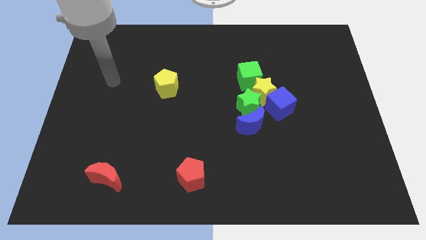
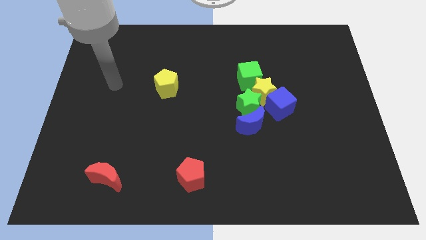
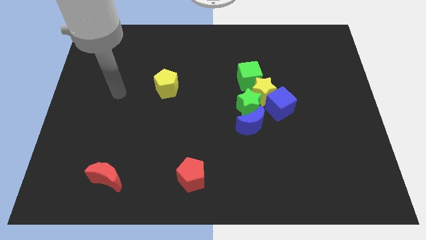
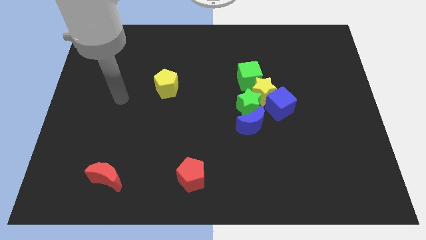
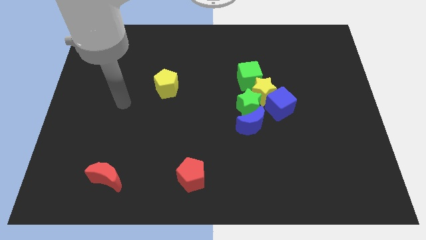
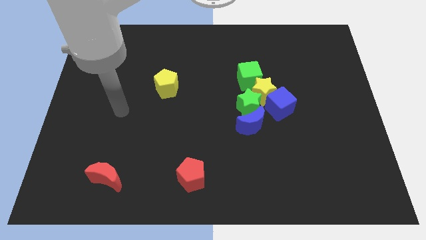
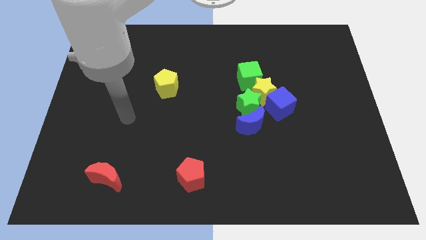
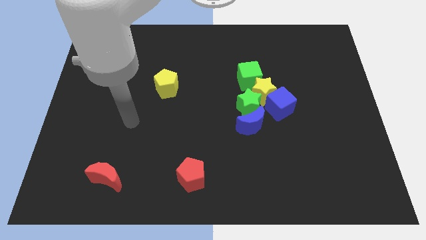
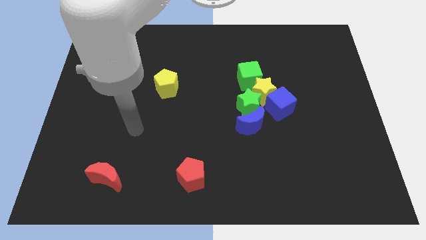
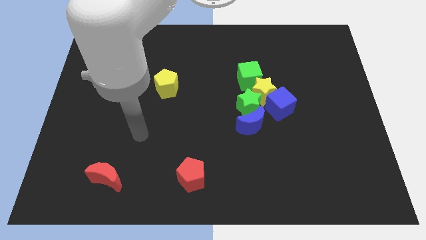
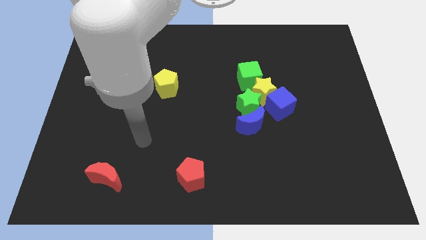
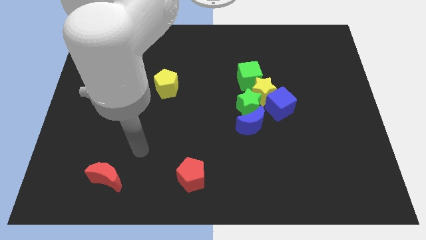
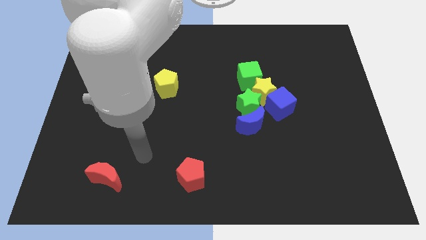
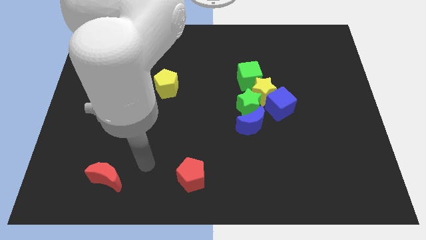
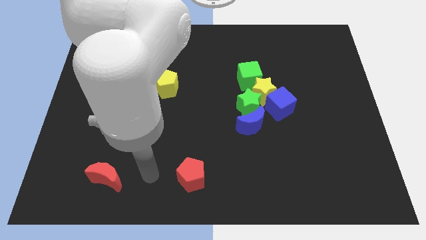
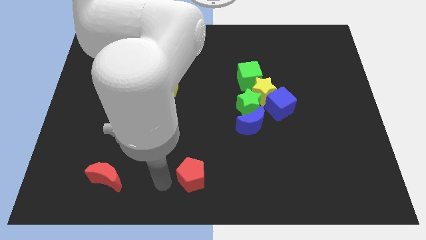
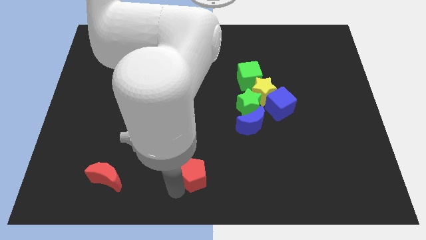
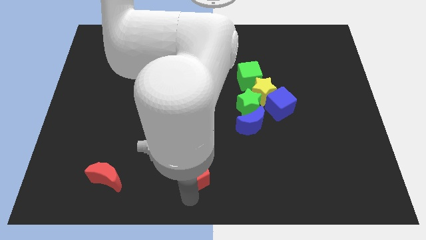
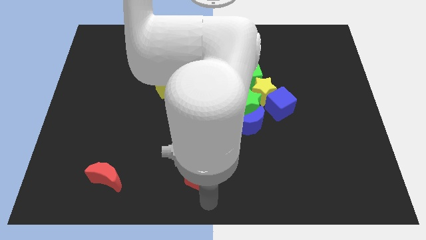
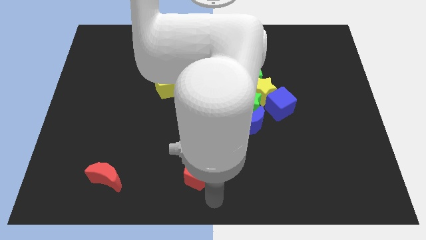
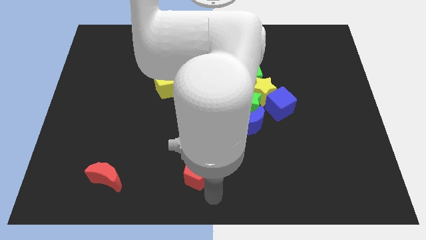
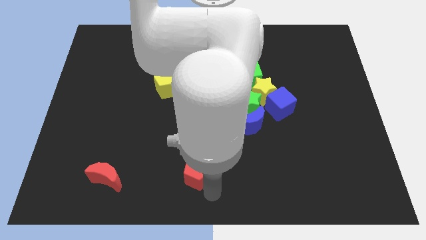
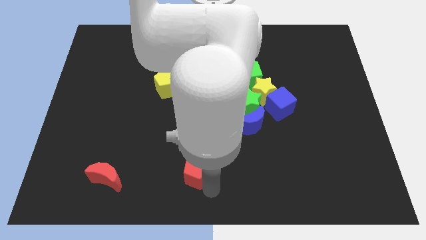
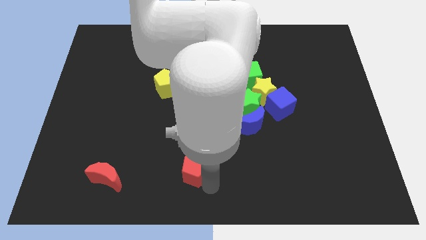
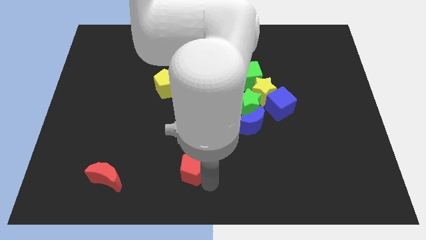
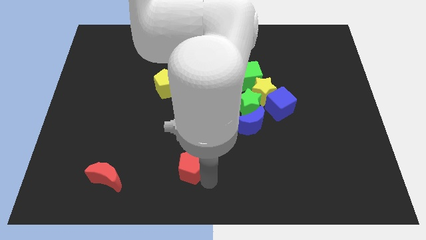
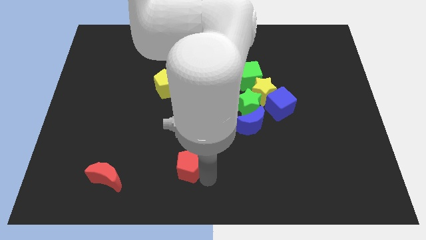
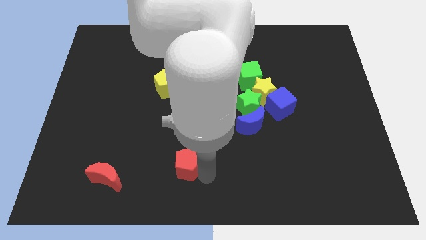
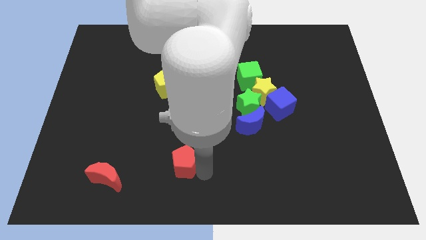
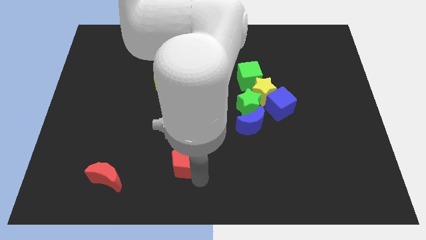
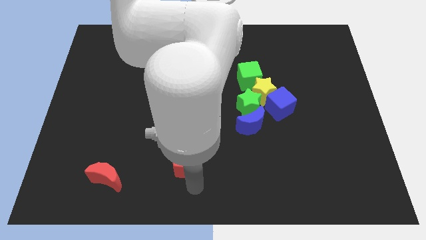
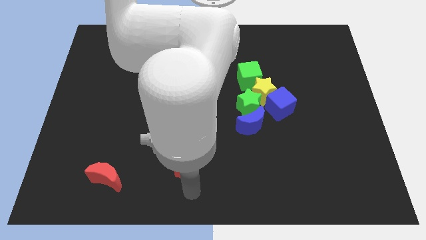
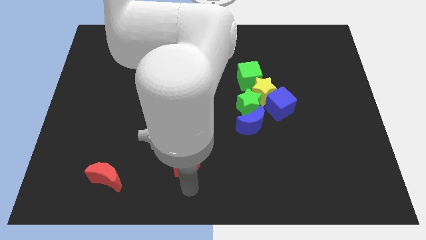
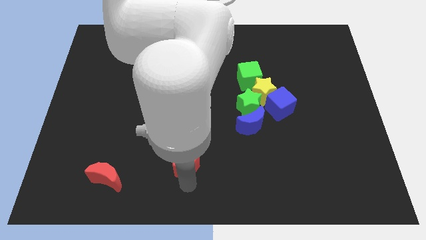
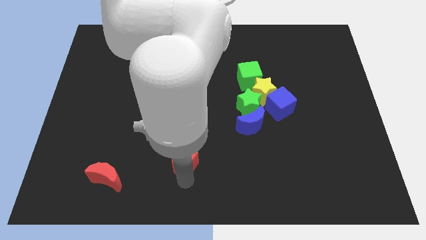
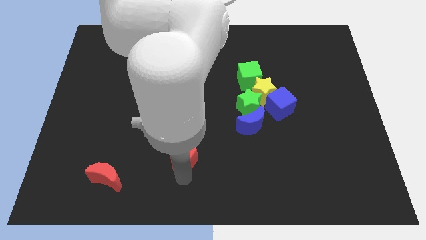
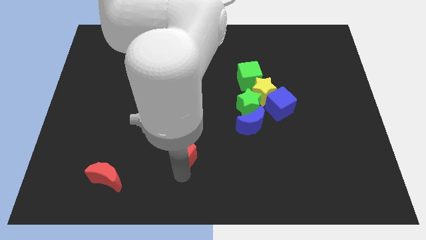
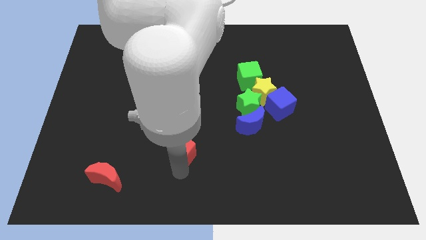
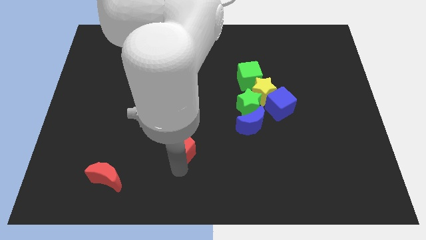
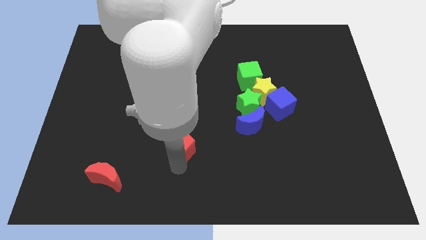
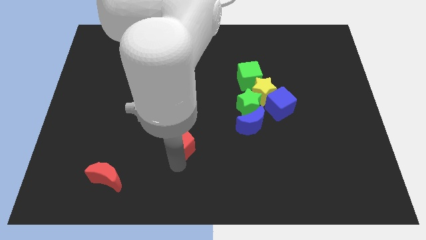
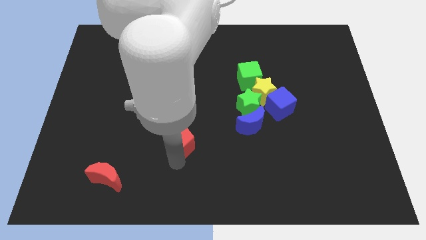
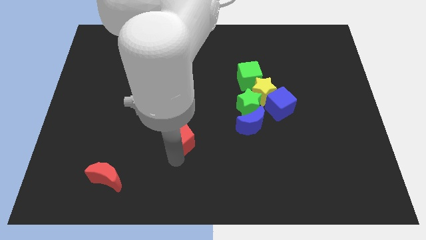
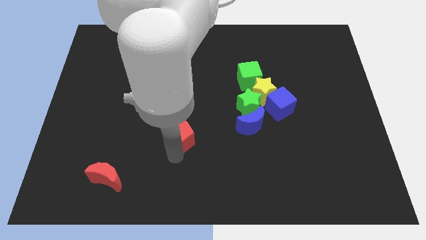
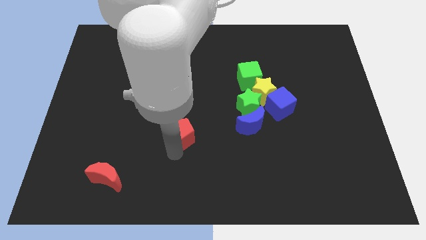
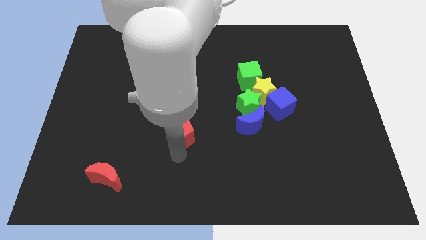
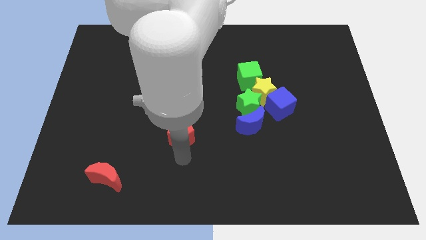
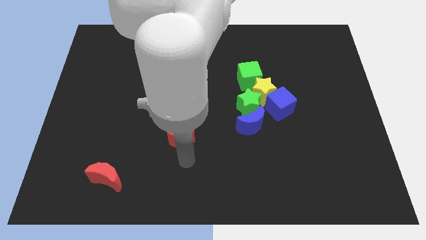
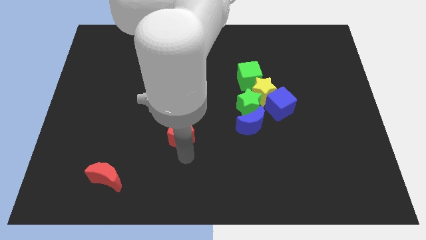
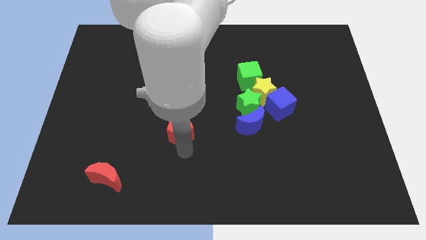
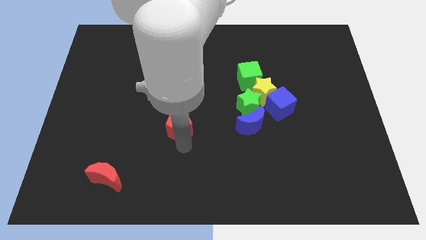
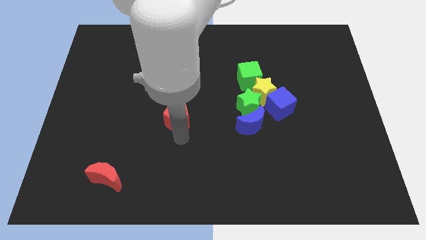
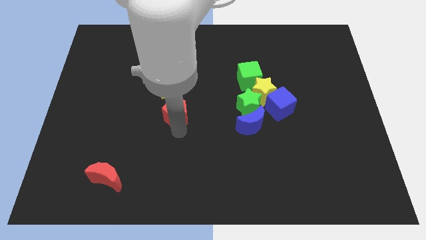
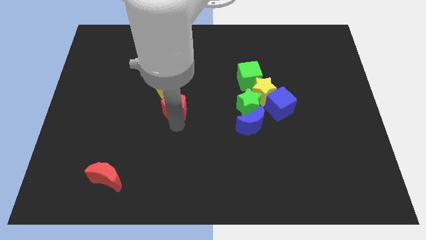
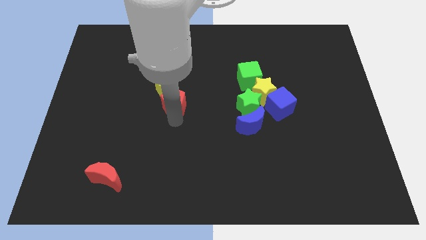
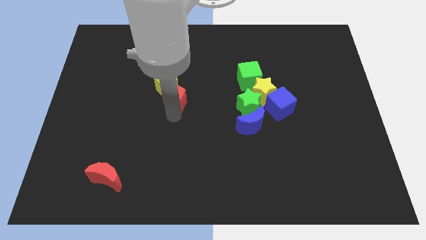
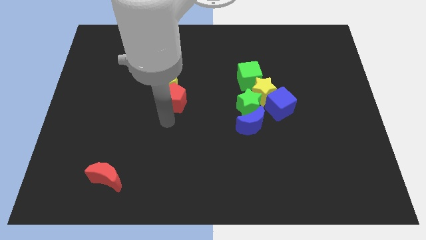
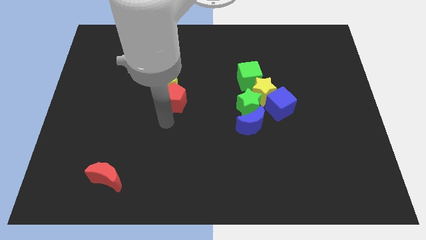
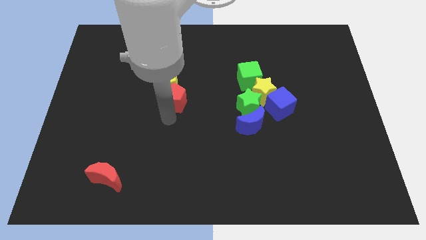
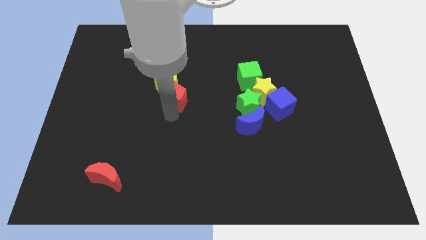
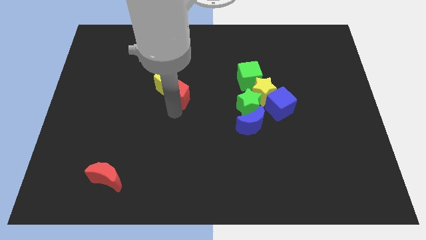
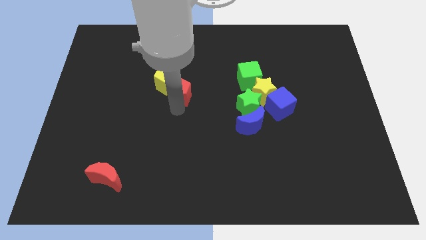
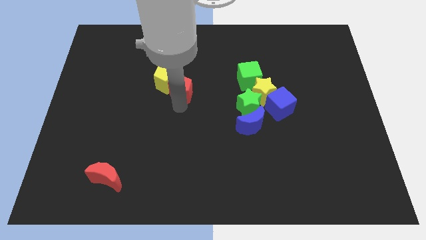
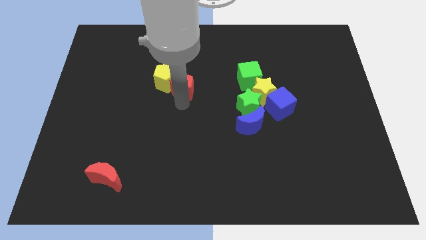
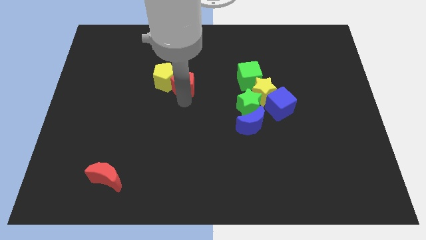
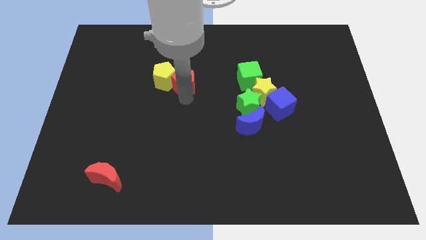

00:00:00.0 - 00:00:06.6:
slide the red pentagon diagonally up and to the right of the yellow pentagon

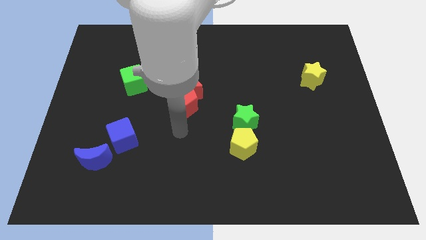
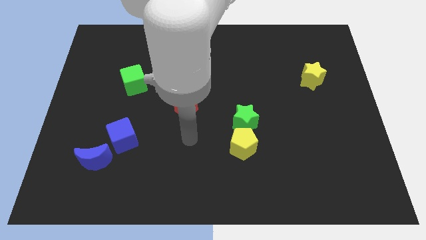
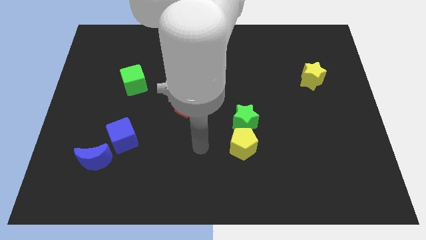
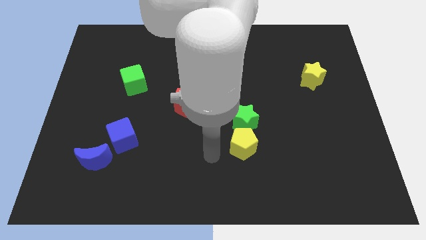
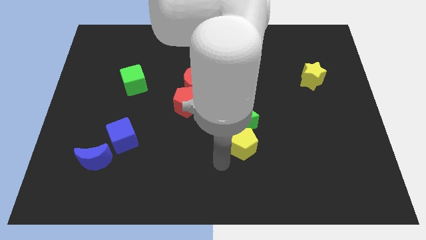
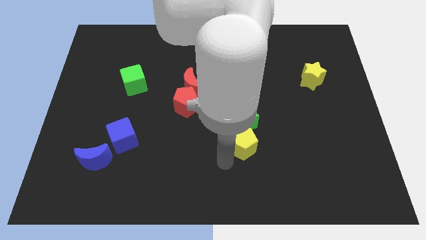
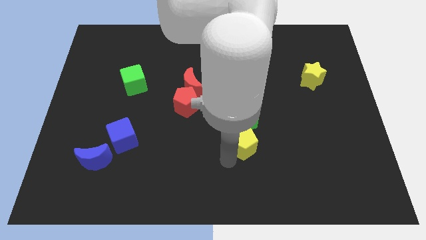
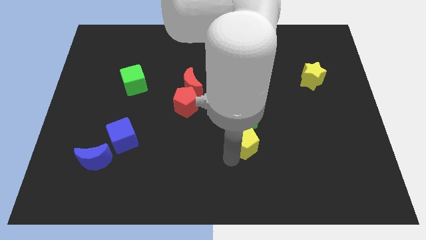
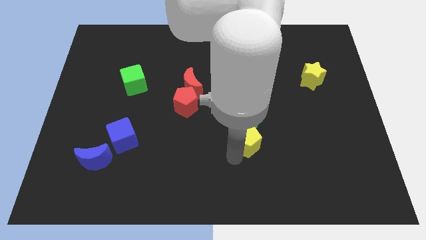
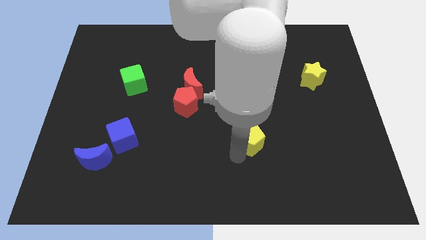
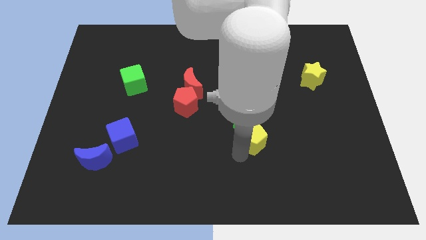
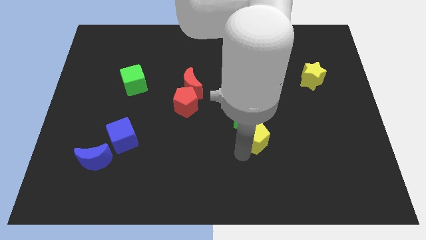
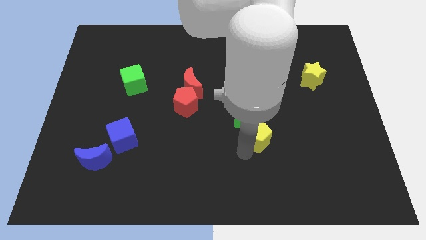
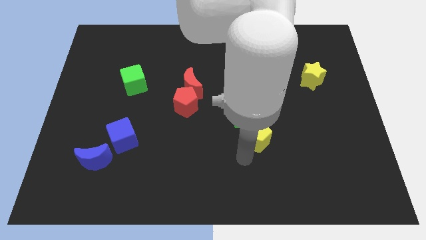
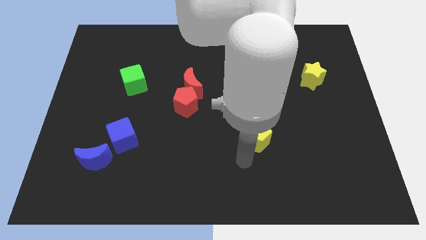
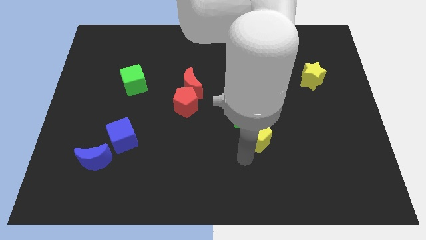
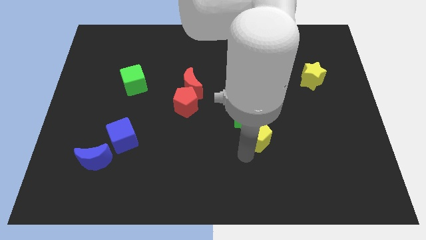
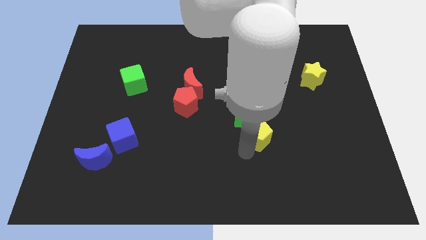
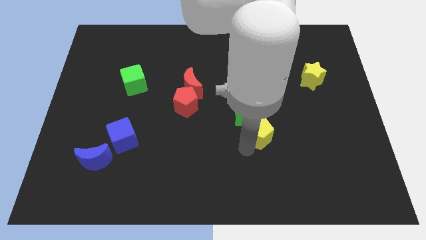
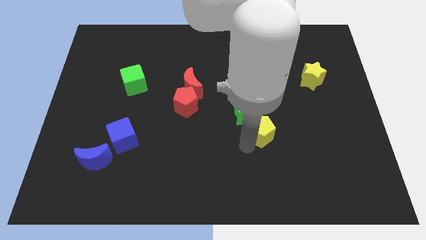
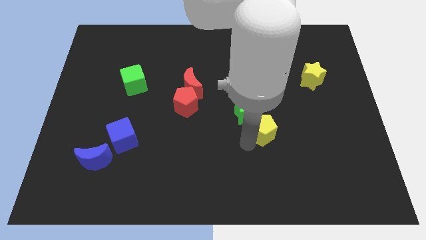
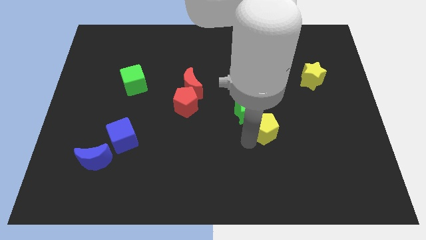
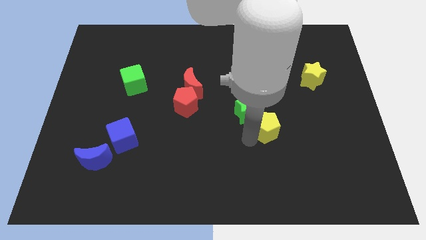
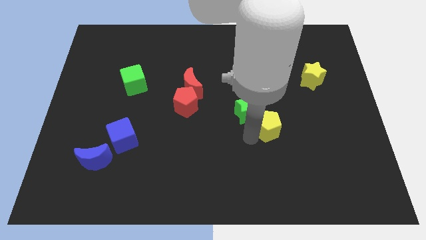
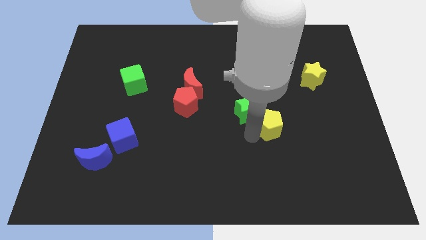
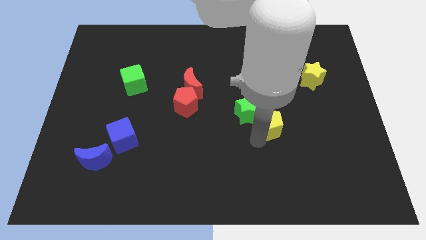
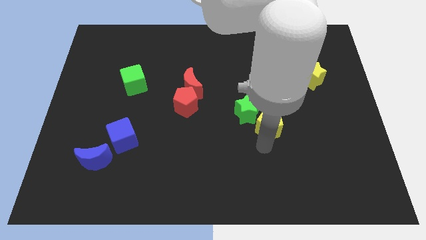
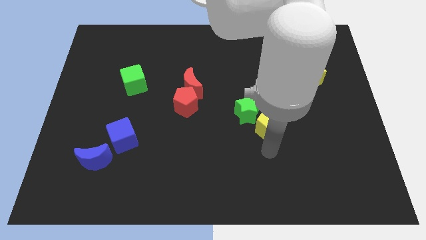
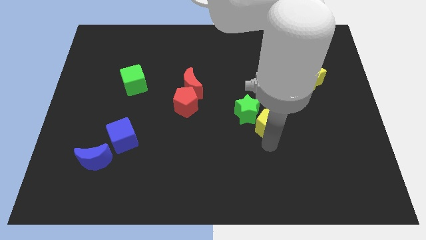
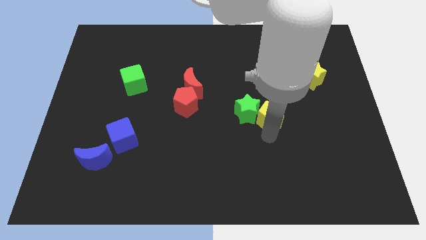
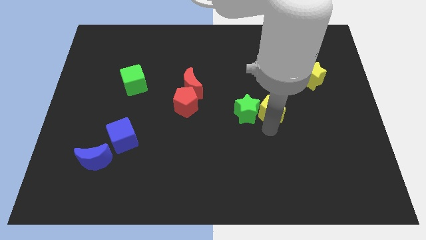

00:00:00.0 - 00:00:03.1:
push the yellow pentagon diagonally up and to the right of the green star
